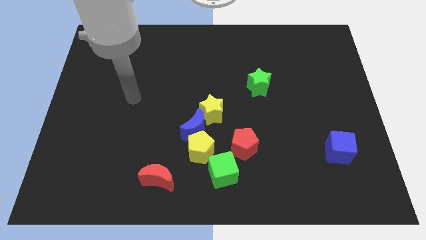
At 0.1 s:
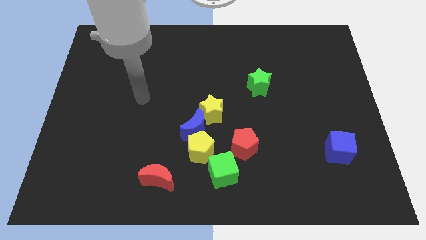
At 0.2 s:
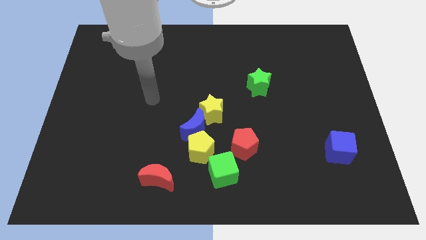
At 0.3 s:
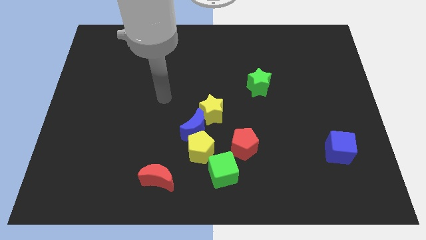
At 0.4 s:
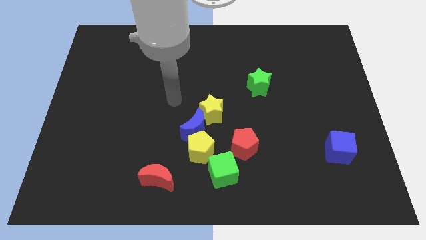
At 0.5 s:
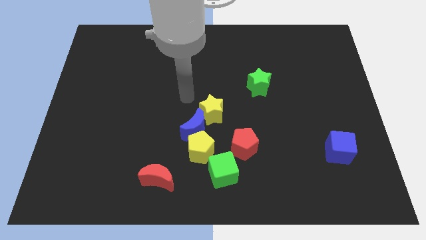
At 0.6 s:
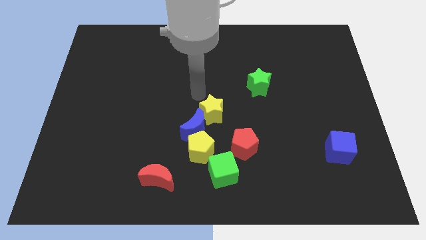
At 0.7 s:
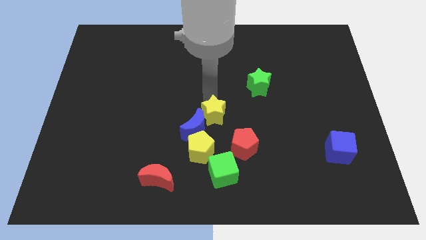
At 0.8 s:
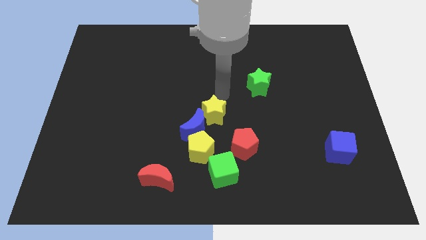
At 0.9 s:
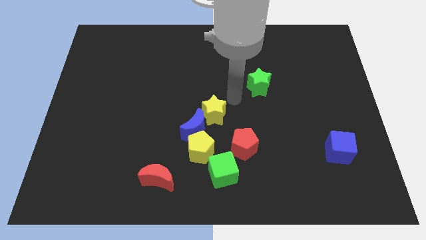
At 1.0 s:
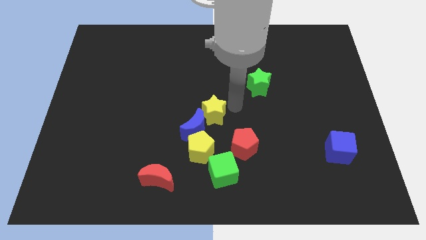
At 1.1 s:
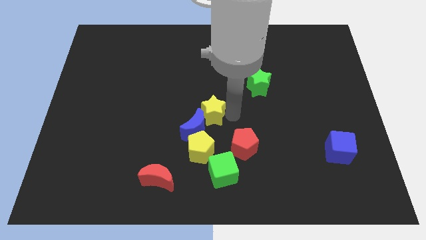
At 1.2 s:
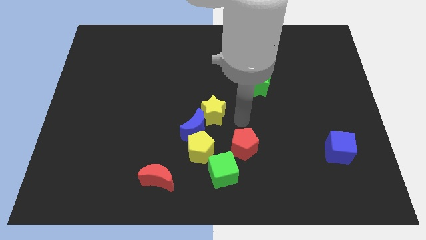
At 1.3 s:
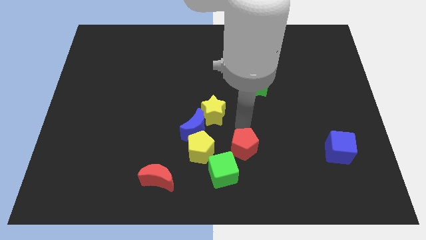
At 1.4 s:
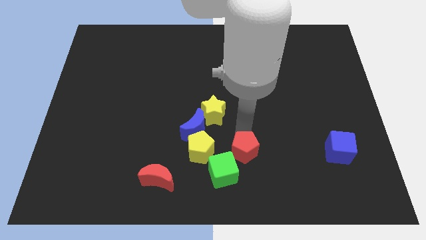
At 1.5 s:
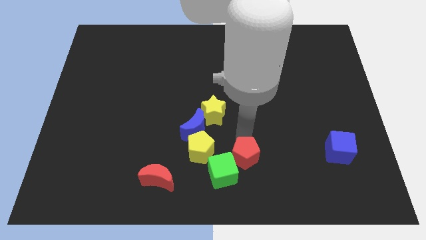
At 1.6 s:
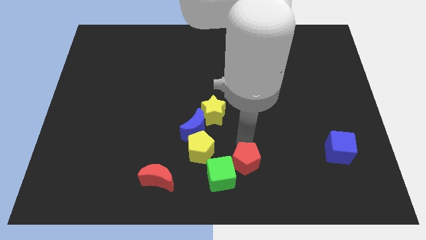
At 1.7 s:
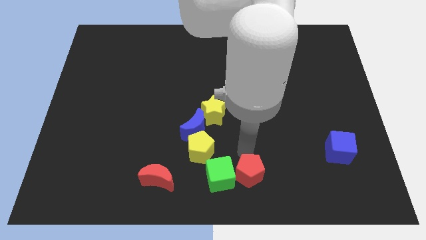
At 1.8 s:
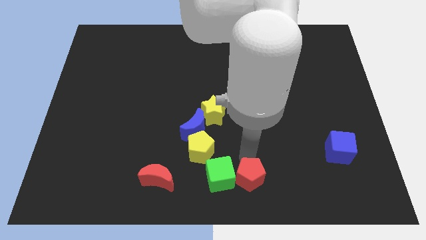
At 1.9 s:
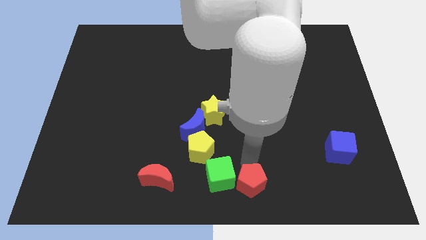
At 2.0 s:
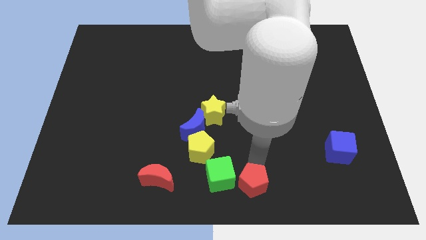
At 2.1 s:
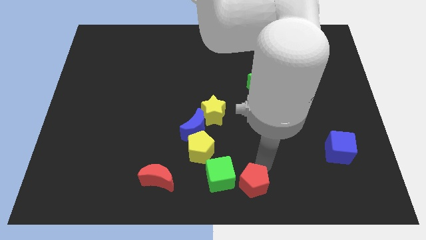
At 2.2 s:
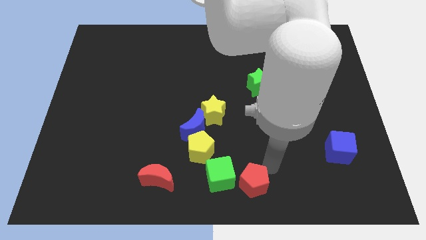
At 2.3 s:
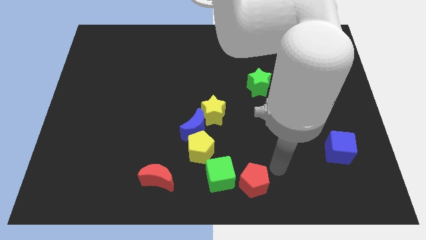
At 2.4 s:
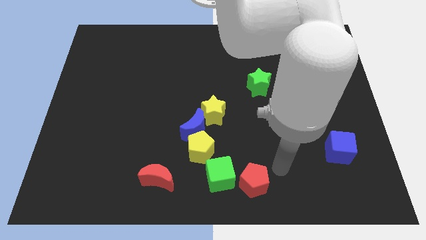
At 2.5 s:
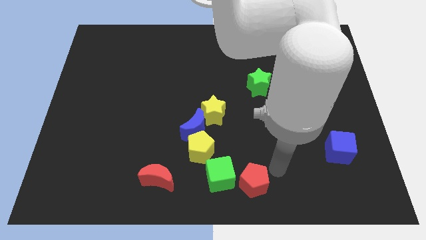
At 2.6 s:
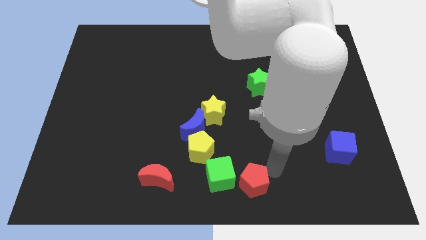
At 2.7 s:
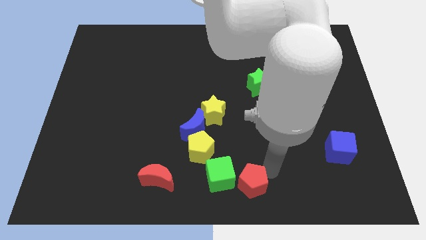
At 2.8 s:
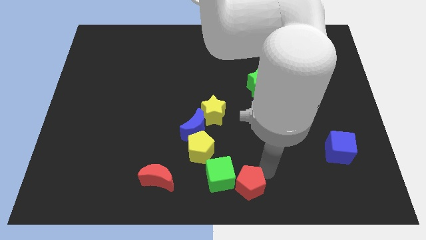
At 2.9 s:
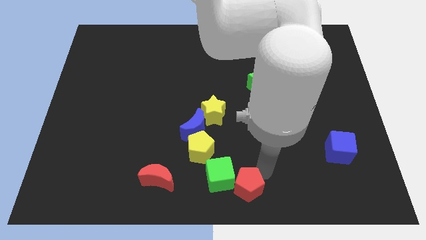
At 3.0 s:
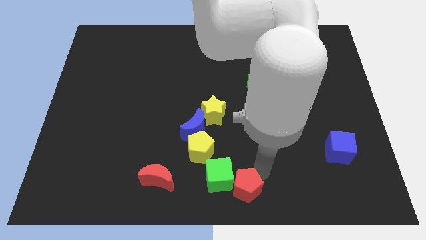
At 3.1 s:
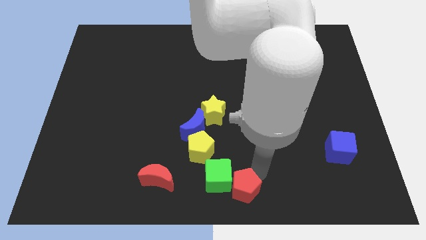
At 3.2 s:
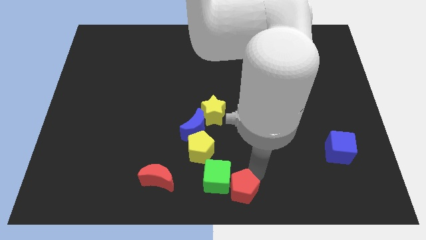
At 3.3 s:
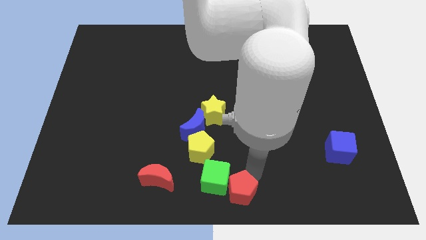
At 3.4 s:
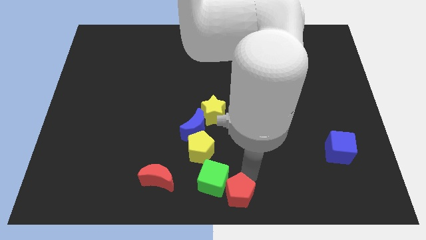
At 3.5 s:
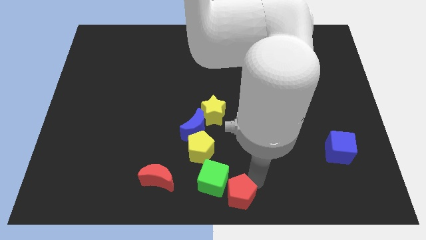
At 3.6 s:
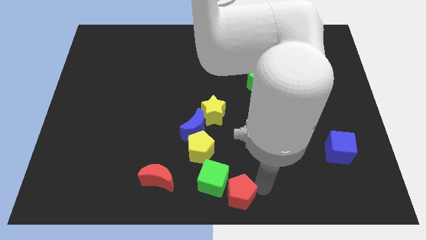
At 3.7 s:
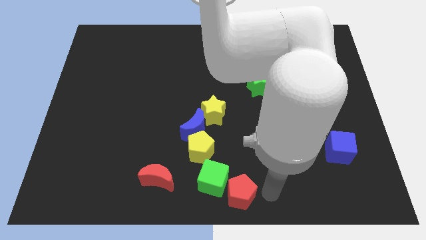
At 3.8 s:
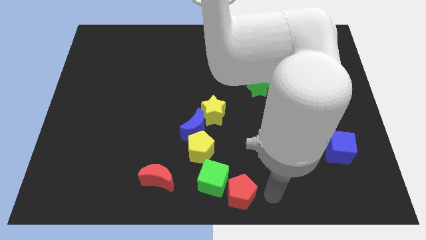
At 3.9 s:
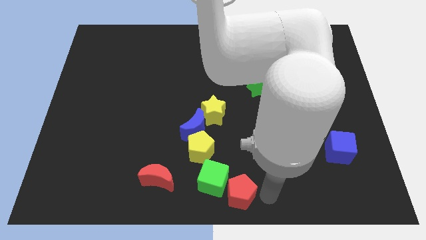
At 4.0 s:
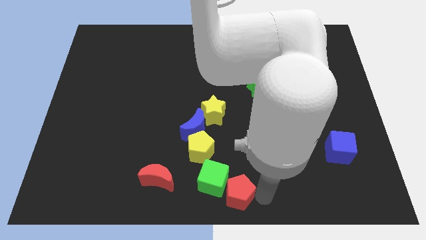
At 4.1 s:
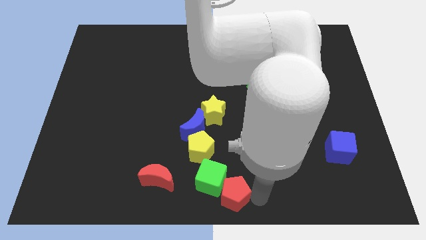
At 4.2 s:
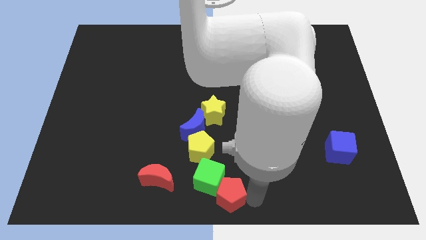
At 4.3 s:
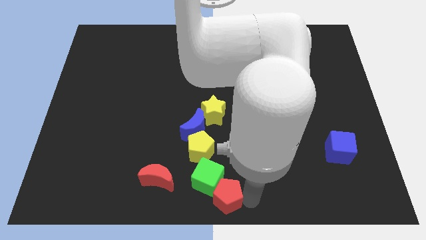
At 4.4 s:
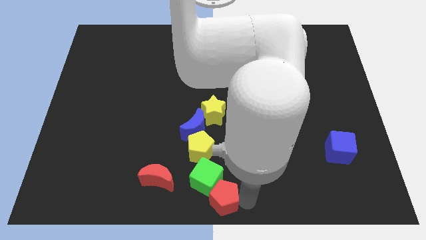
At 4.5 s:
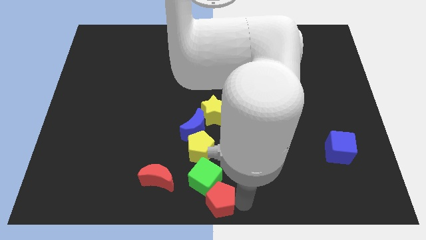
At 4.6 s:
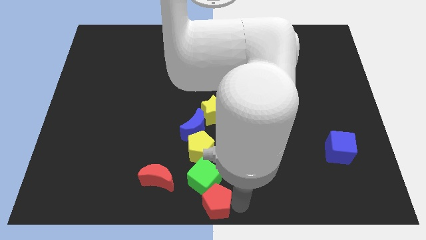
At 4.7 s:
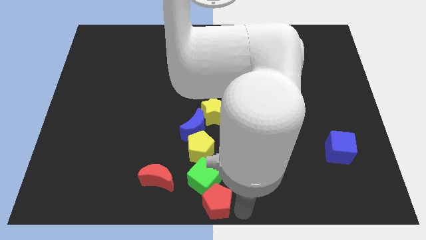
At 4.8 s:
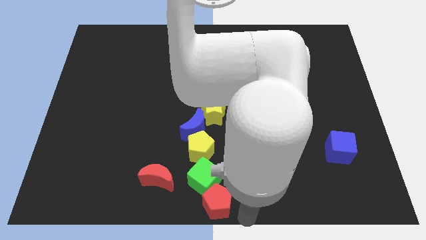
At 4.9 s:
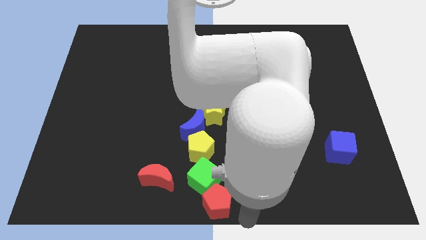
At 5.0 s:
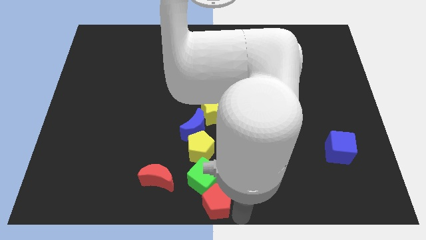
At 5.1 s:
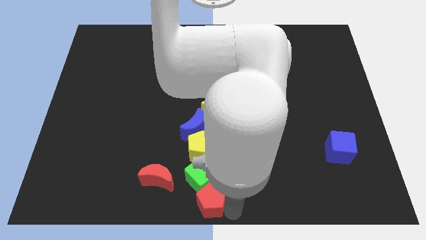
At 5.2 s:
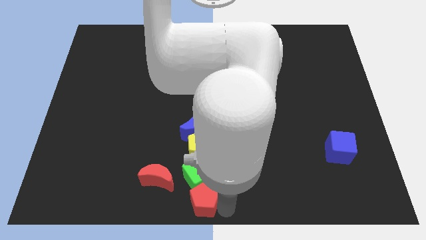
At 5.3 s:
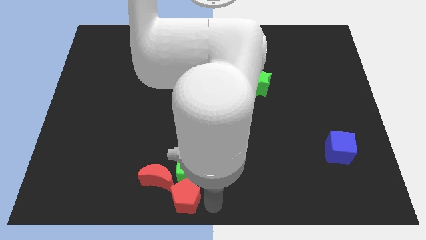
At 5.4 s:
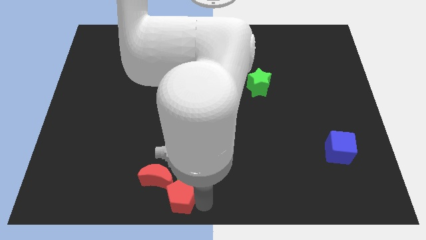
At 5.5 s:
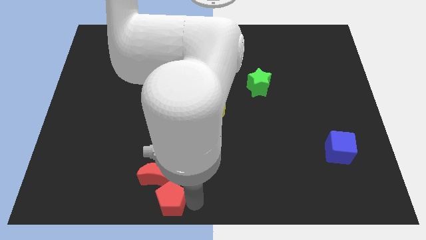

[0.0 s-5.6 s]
push the red pentagon close to the red moon
